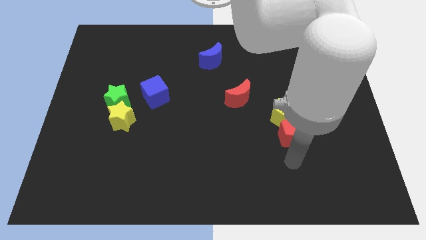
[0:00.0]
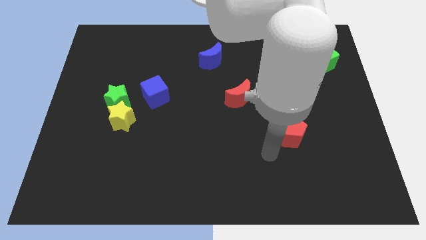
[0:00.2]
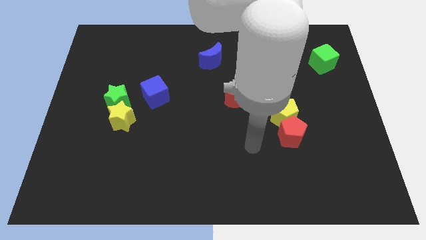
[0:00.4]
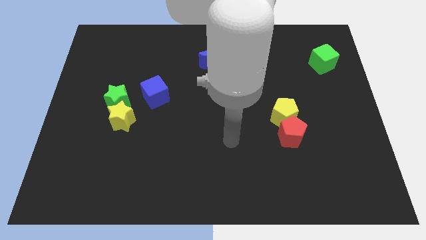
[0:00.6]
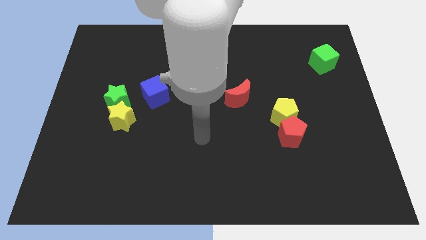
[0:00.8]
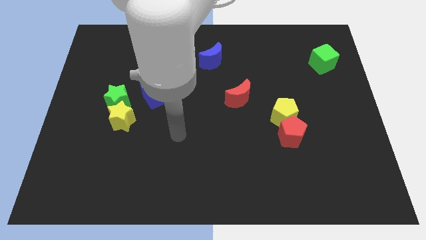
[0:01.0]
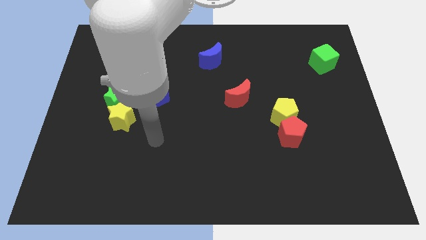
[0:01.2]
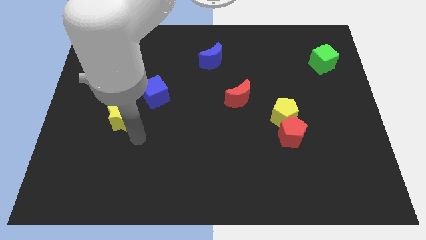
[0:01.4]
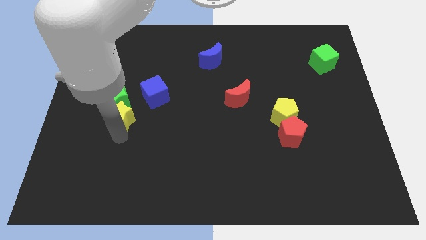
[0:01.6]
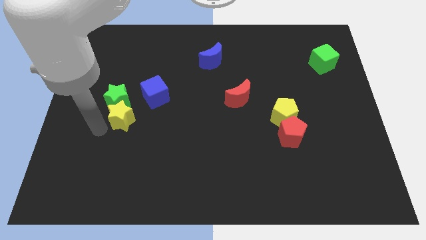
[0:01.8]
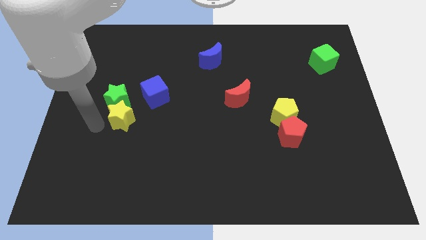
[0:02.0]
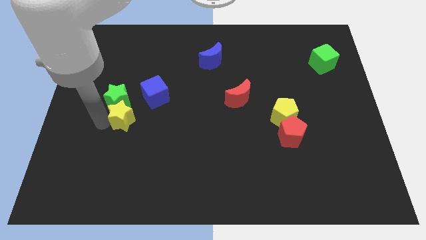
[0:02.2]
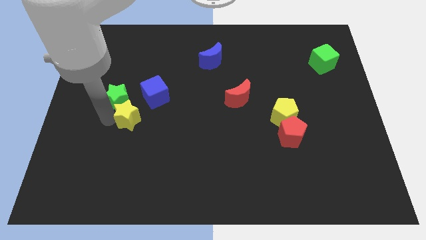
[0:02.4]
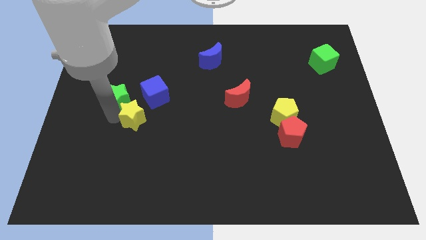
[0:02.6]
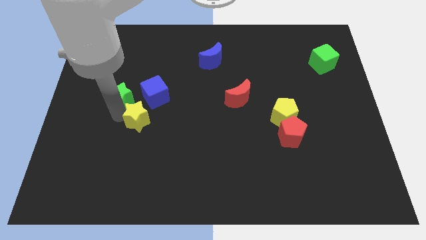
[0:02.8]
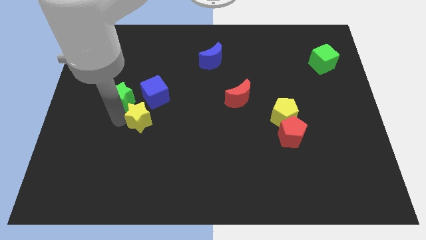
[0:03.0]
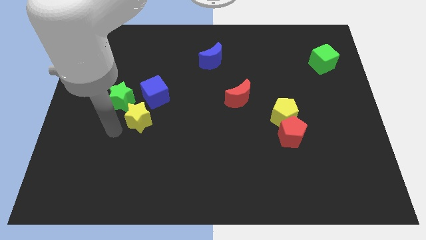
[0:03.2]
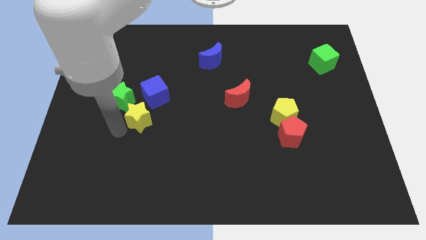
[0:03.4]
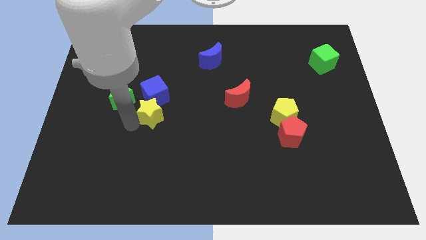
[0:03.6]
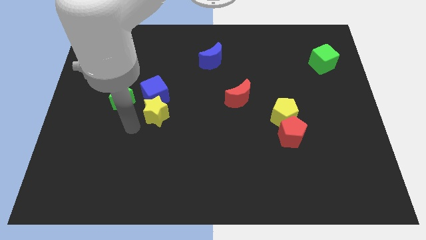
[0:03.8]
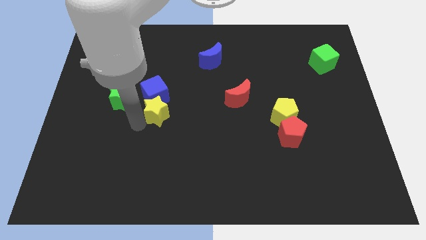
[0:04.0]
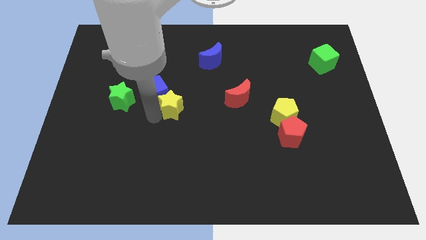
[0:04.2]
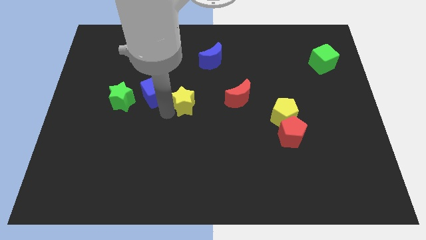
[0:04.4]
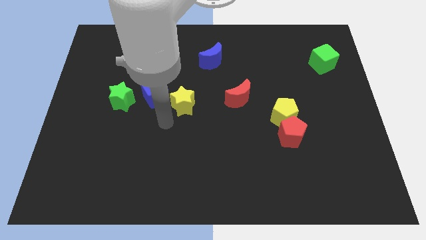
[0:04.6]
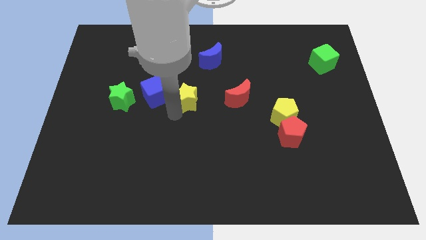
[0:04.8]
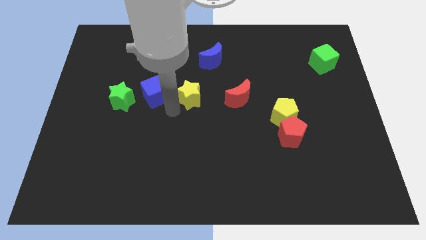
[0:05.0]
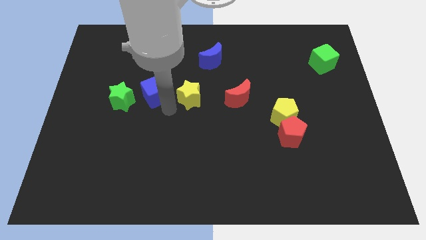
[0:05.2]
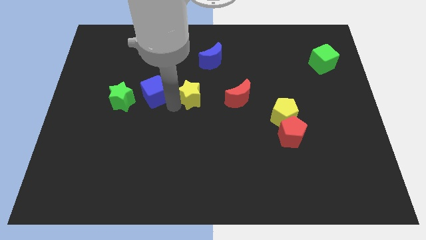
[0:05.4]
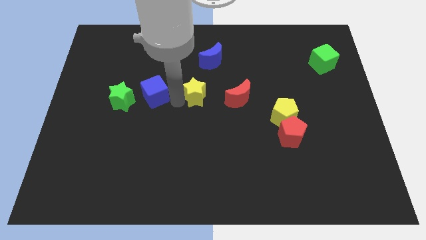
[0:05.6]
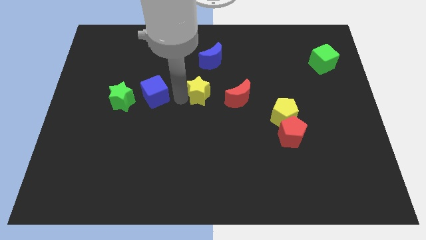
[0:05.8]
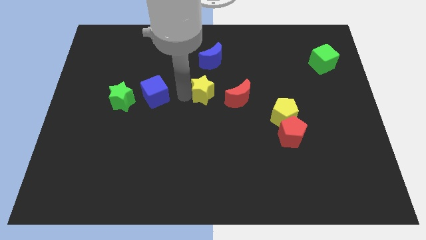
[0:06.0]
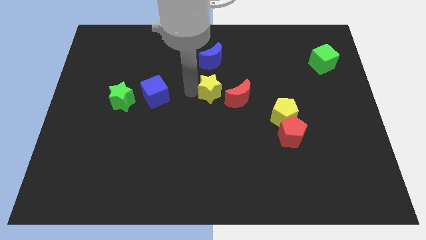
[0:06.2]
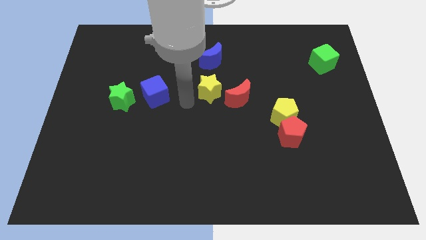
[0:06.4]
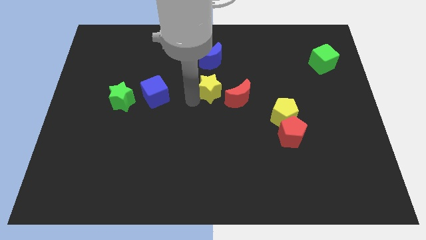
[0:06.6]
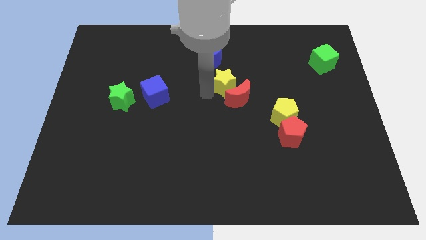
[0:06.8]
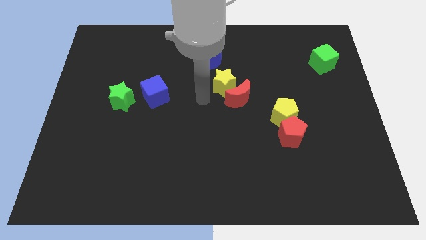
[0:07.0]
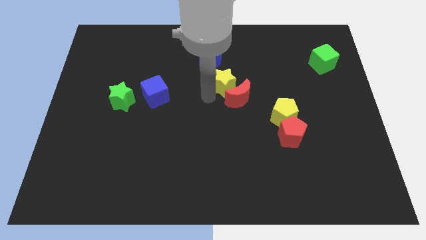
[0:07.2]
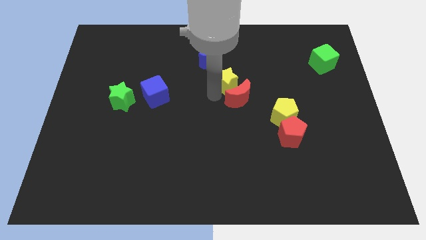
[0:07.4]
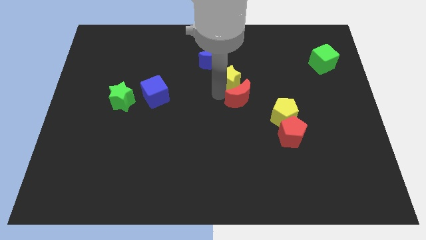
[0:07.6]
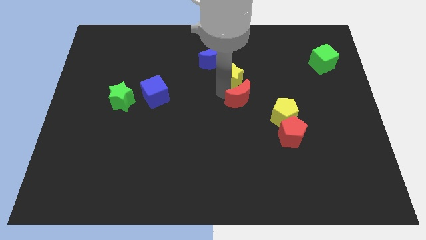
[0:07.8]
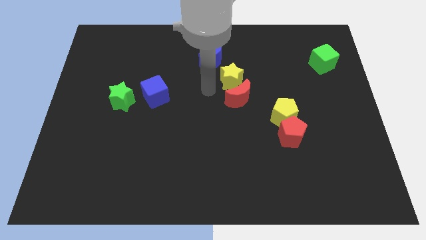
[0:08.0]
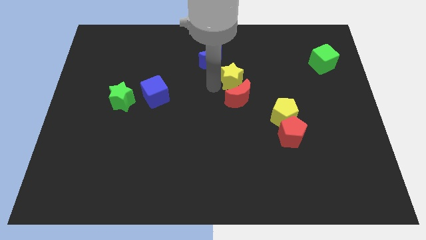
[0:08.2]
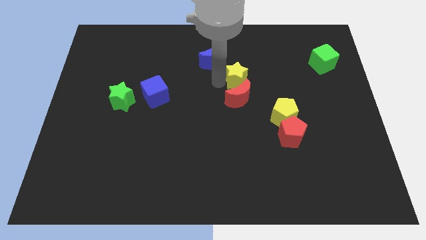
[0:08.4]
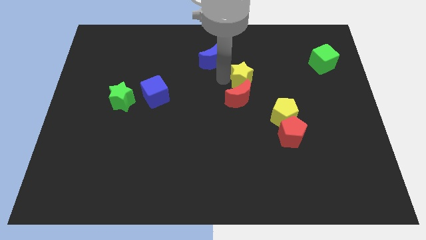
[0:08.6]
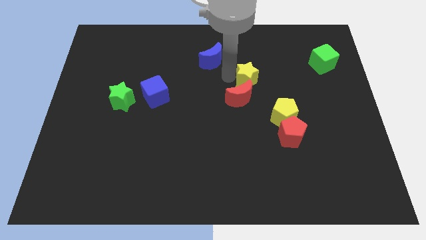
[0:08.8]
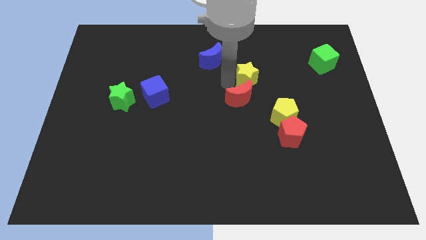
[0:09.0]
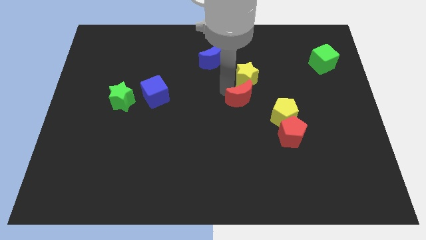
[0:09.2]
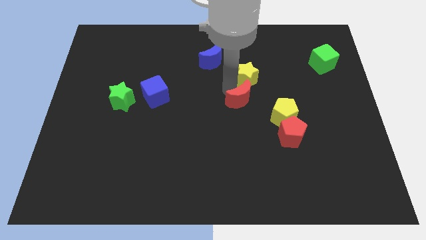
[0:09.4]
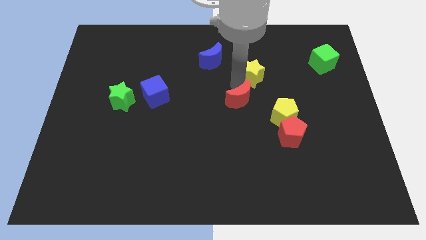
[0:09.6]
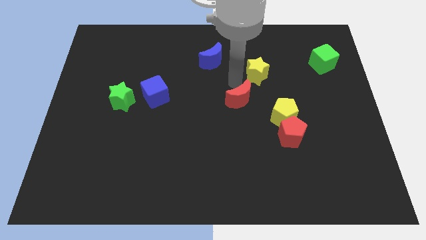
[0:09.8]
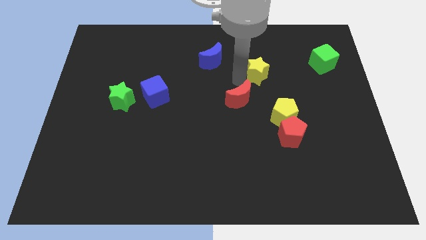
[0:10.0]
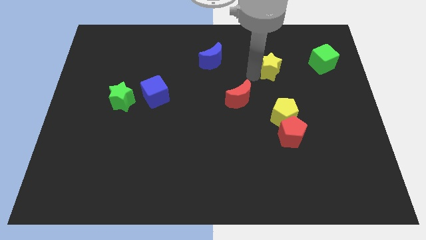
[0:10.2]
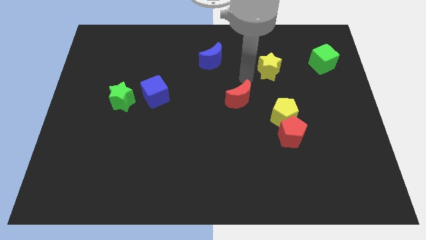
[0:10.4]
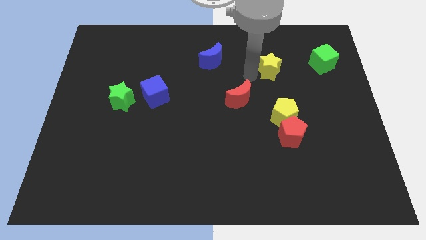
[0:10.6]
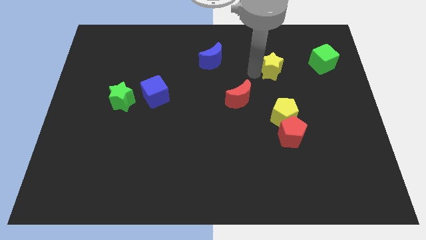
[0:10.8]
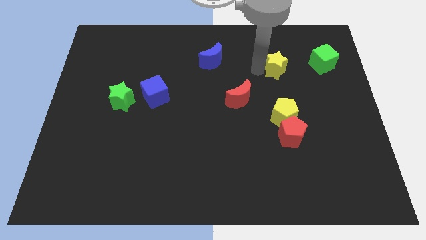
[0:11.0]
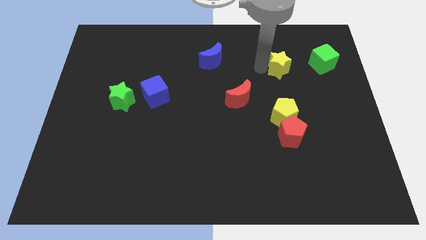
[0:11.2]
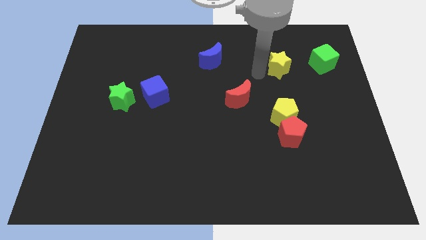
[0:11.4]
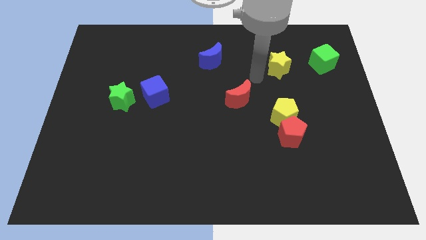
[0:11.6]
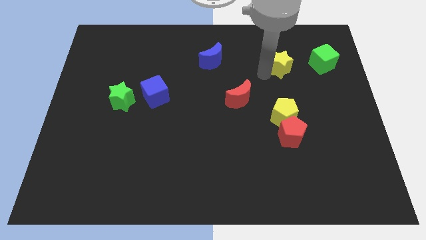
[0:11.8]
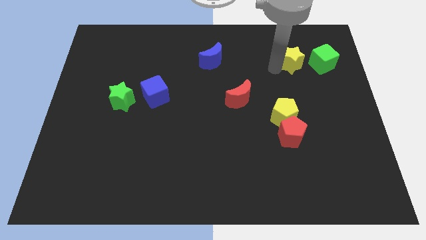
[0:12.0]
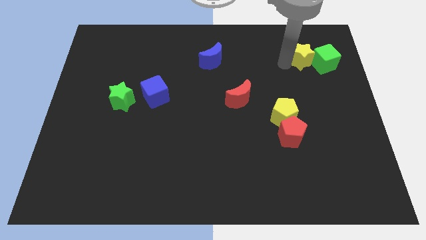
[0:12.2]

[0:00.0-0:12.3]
move the yellow star to the green cube
